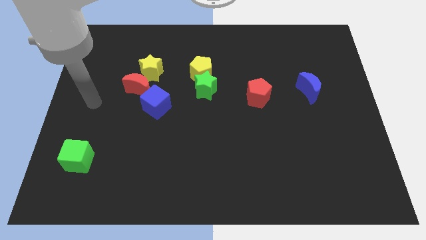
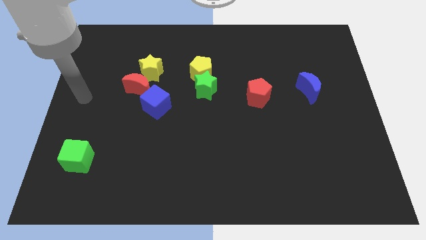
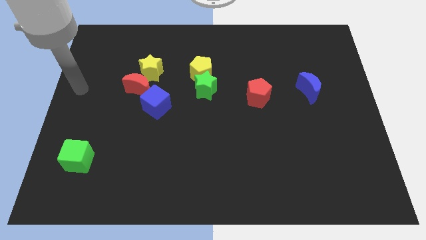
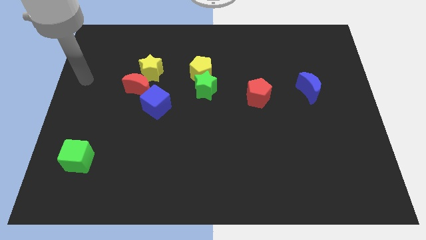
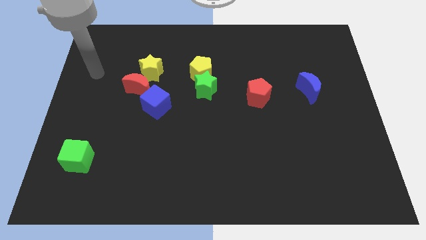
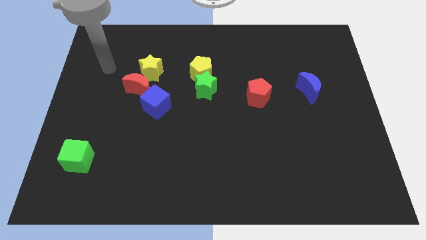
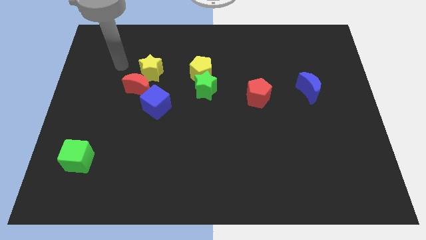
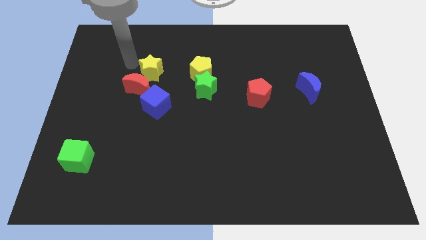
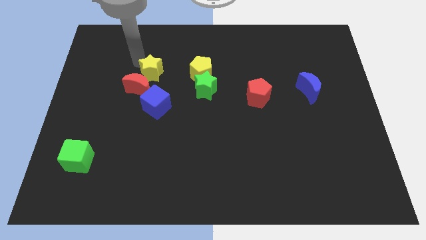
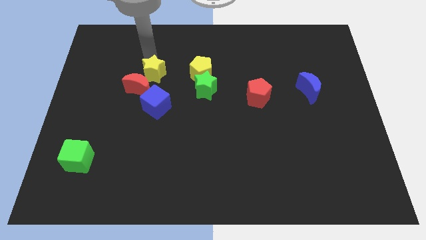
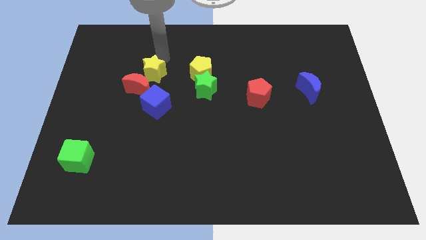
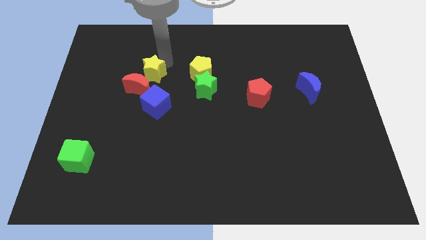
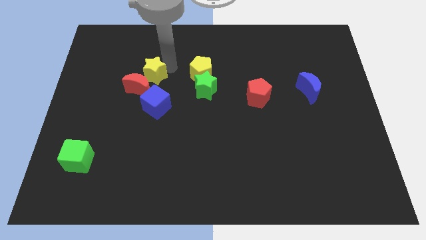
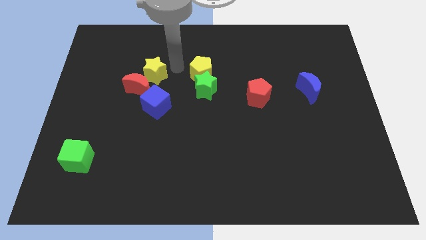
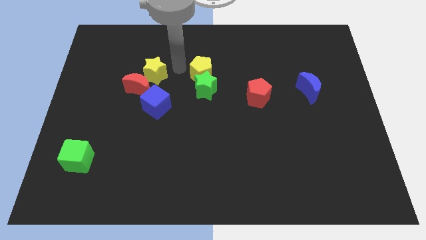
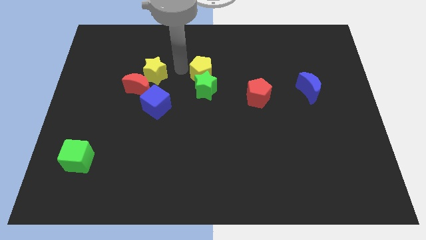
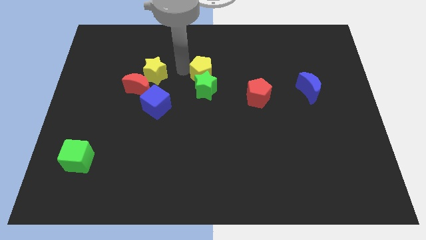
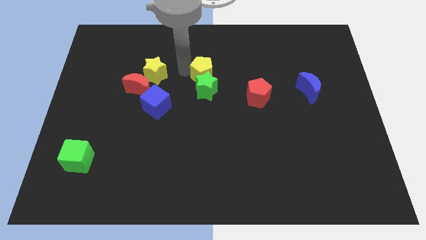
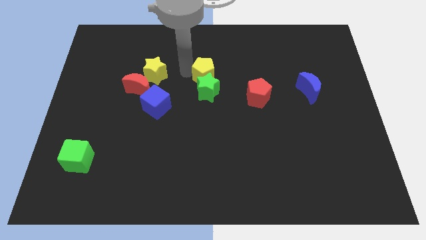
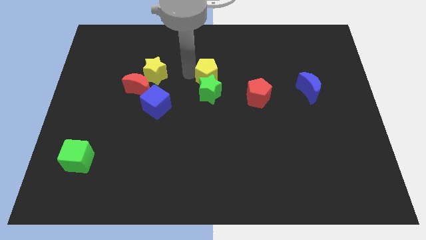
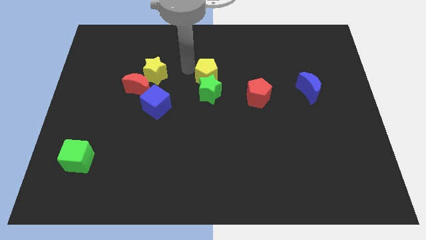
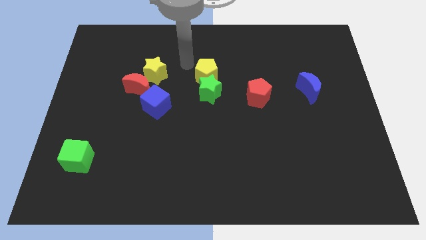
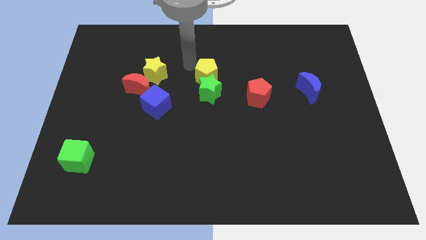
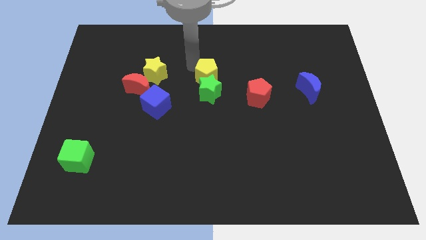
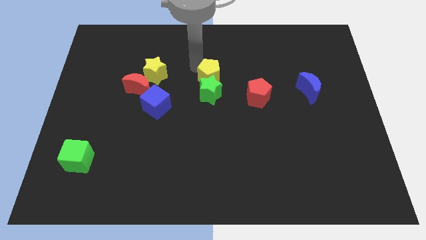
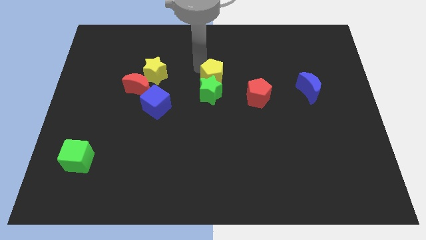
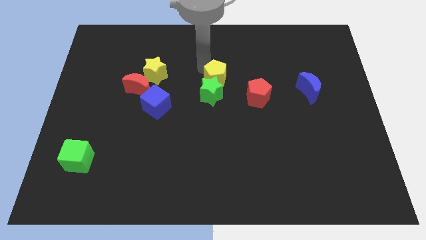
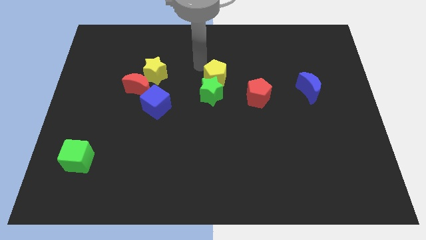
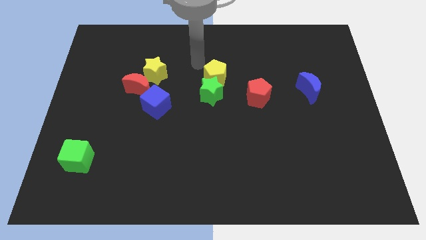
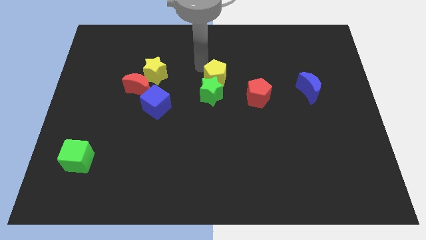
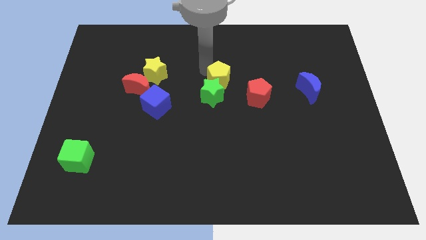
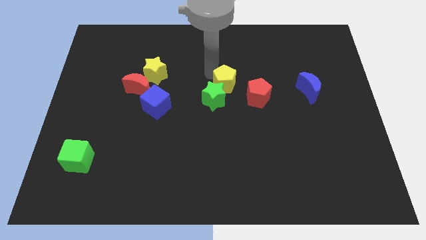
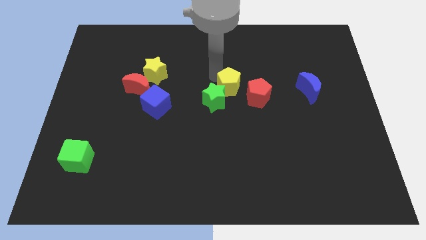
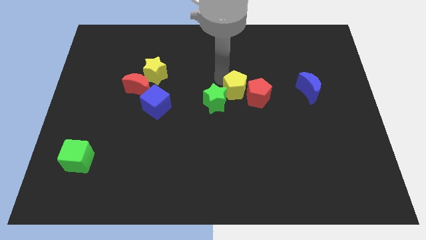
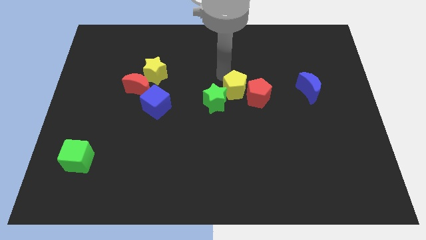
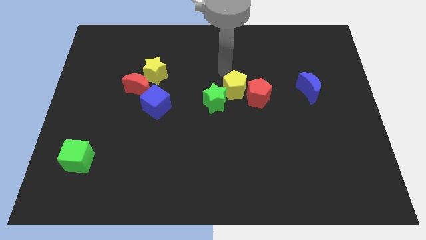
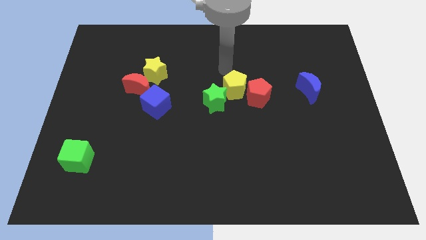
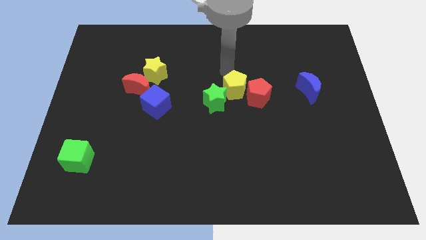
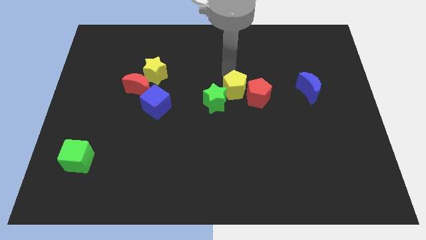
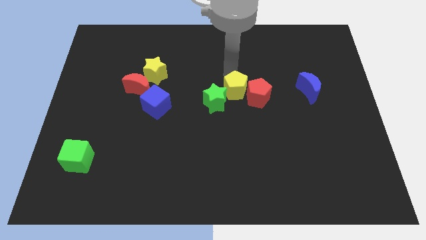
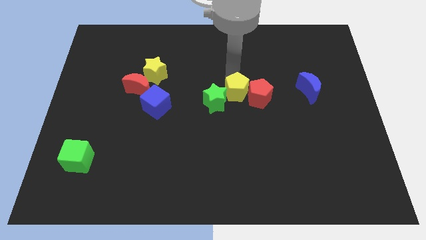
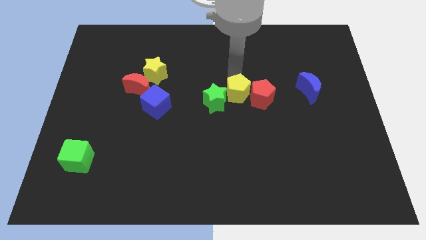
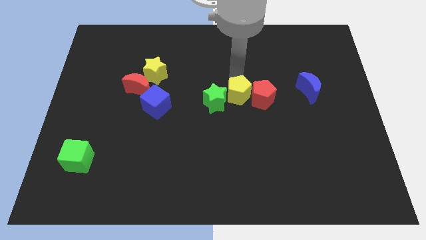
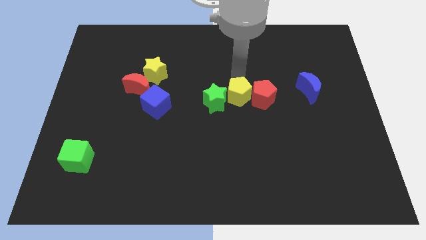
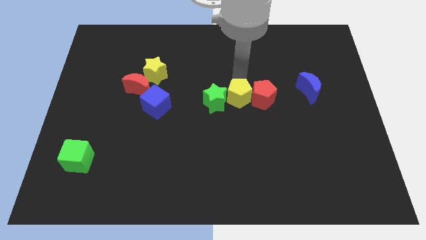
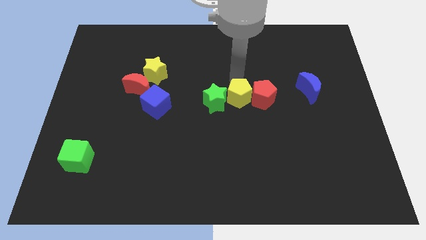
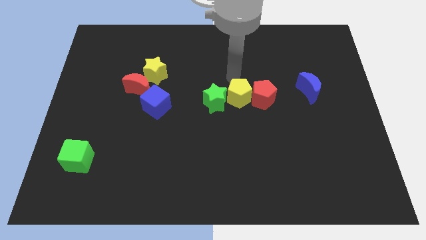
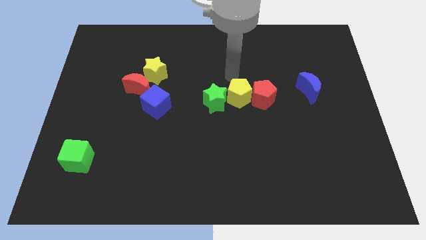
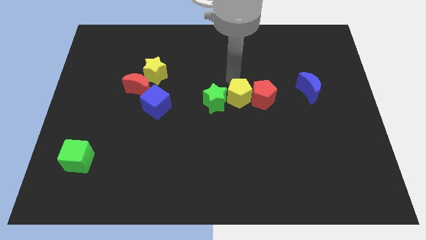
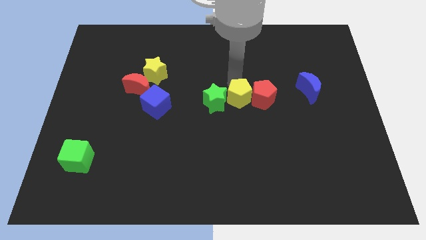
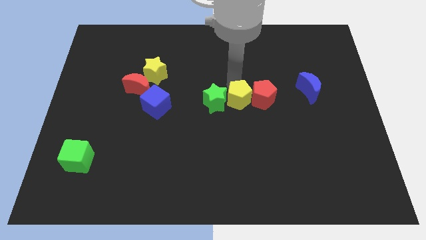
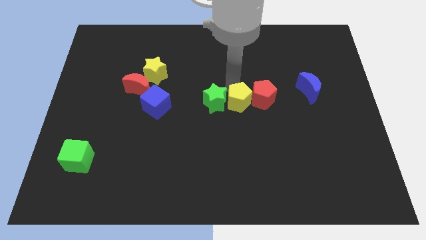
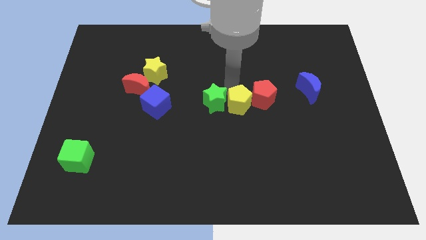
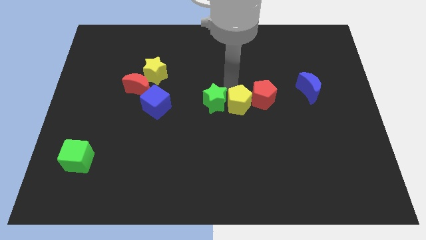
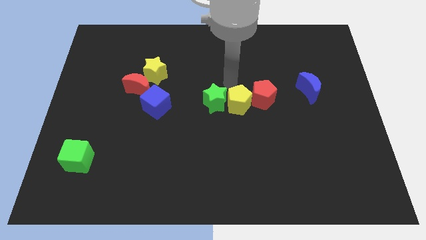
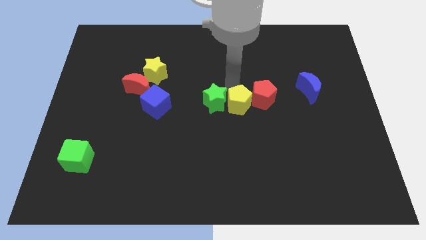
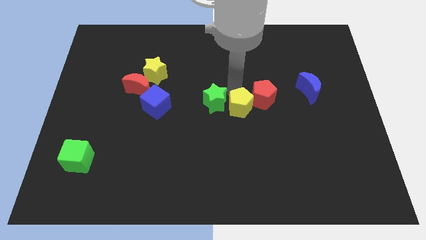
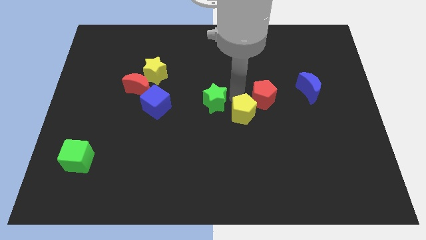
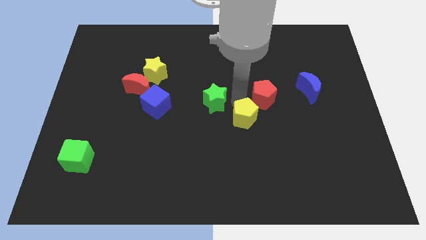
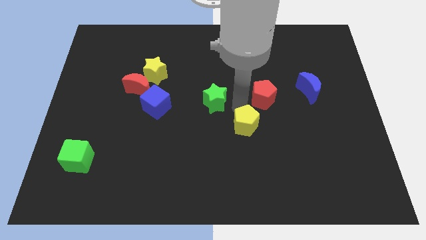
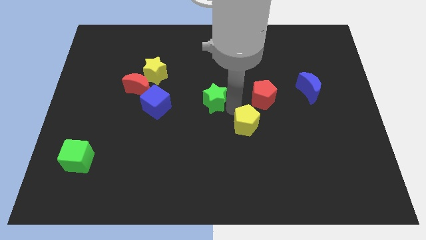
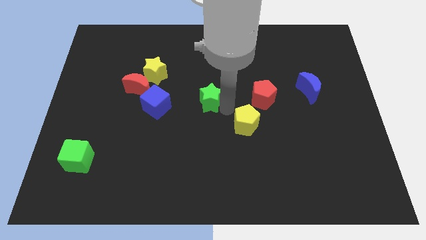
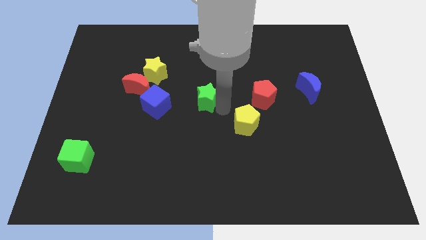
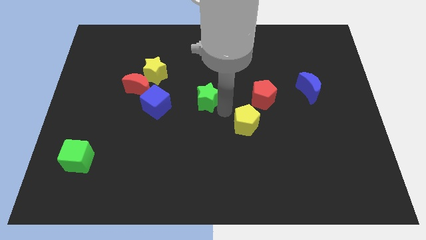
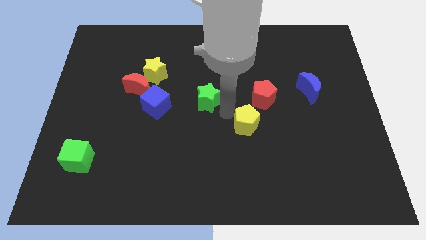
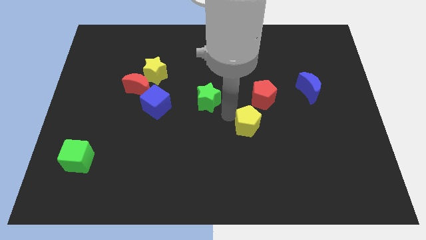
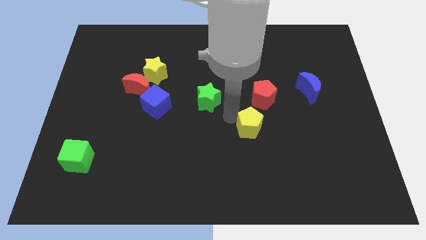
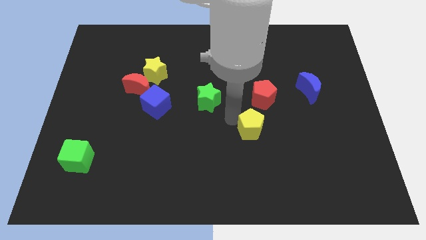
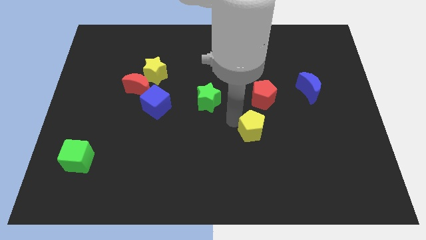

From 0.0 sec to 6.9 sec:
slide the yellow pentagon diagonally downwards and right

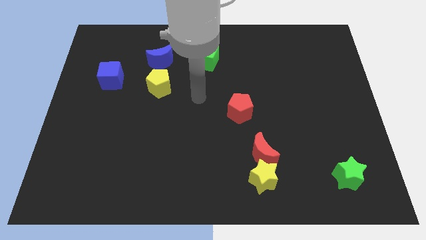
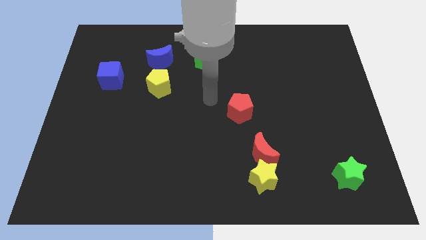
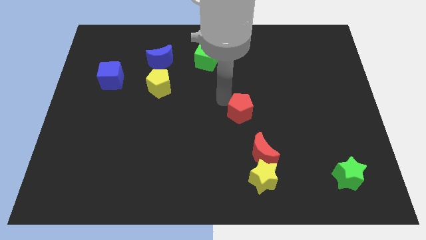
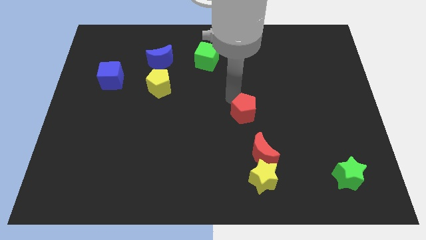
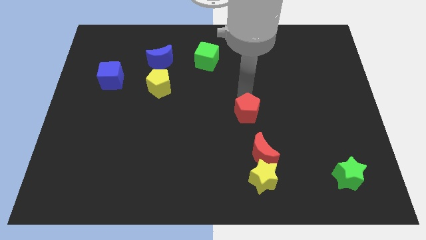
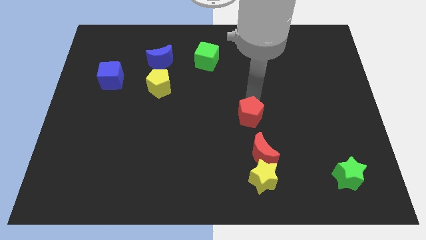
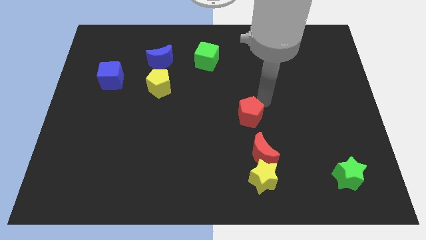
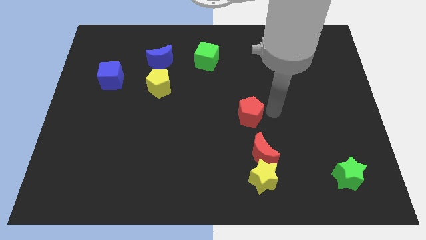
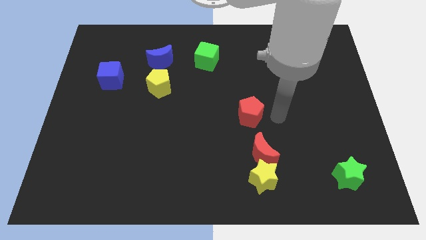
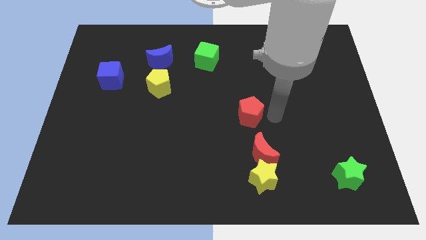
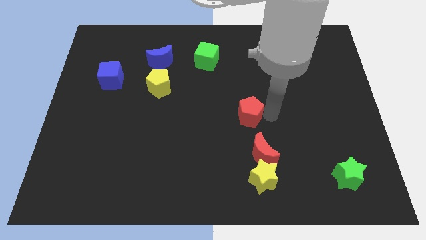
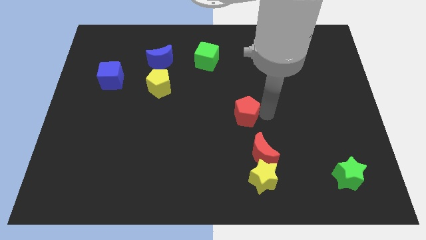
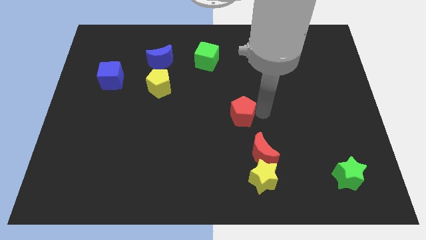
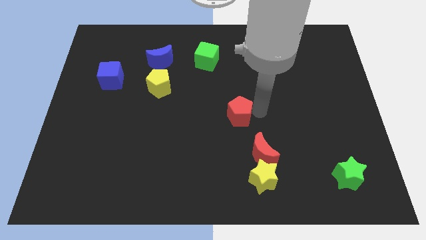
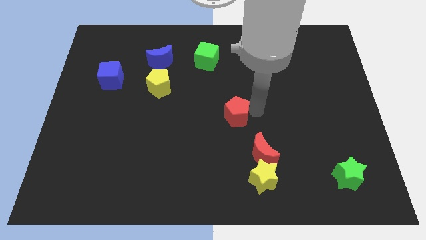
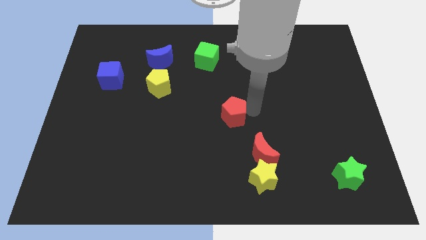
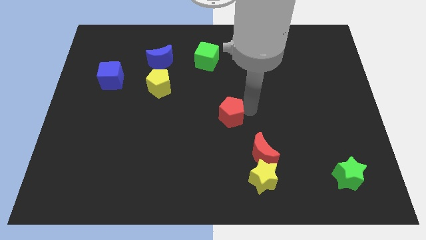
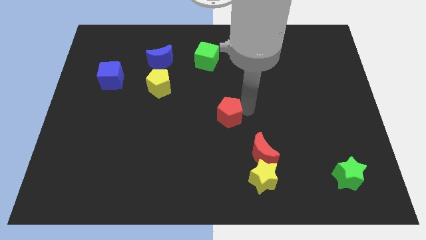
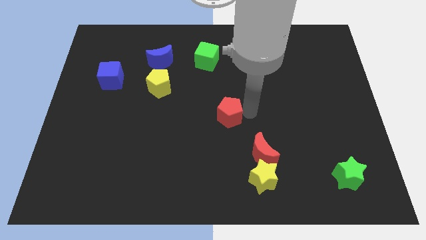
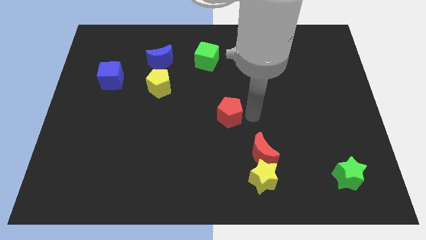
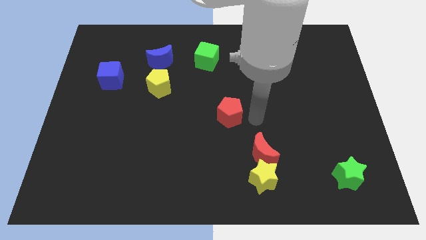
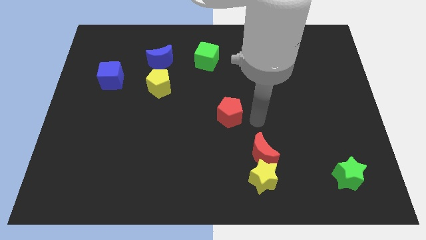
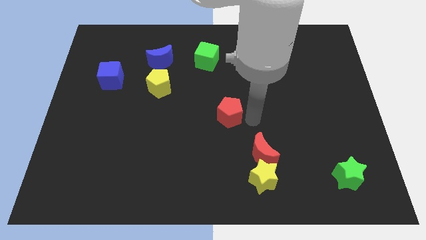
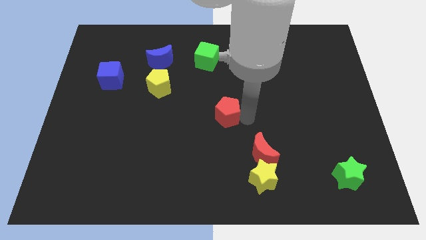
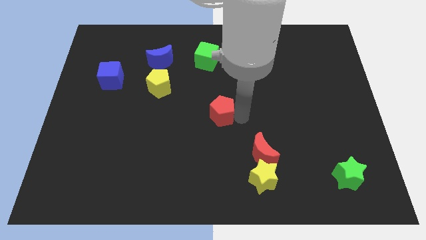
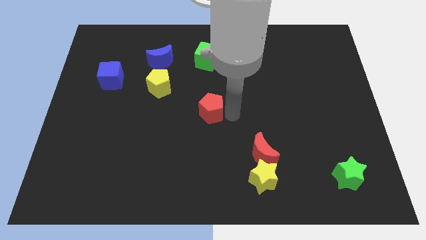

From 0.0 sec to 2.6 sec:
move the red pentagon a bit left
